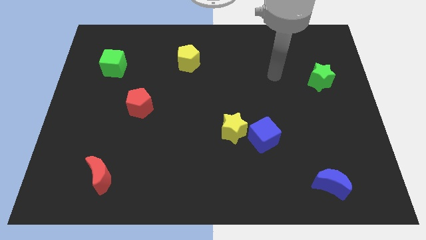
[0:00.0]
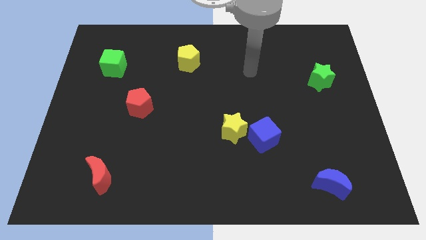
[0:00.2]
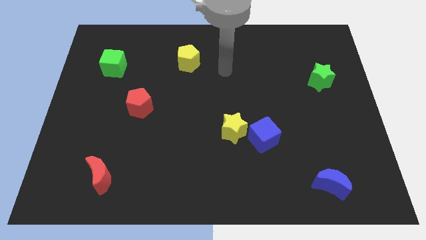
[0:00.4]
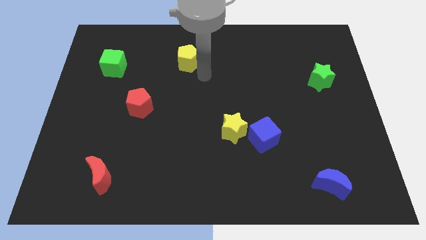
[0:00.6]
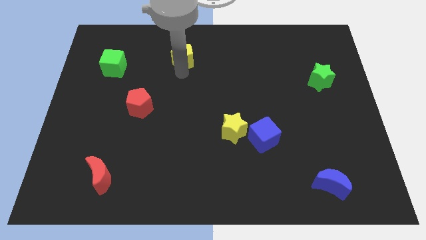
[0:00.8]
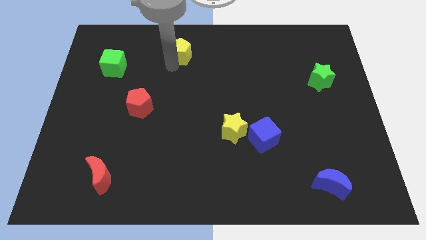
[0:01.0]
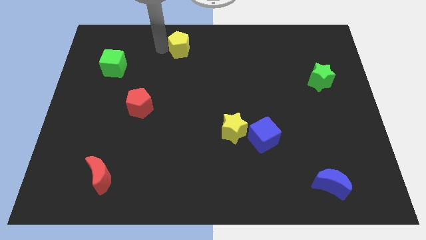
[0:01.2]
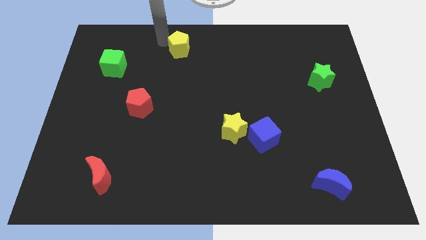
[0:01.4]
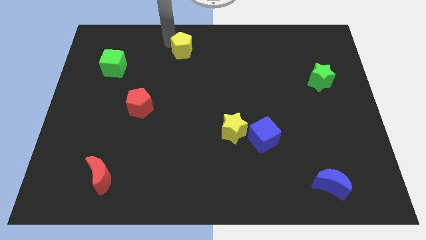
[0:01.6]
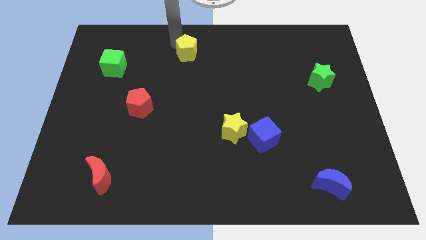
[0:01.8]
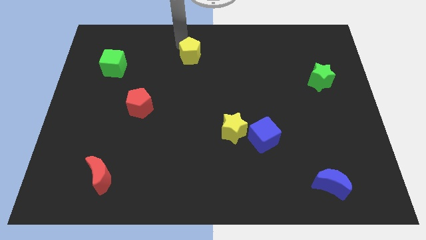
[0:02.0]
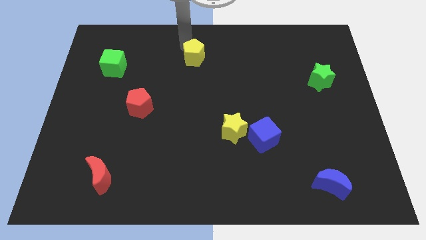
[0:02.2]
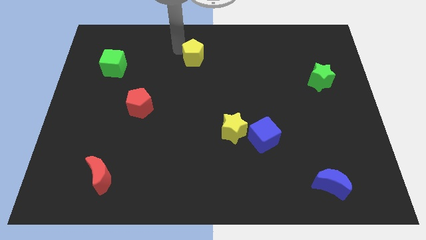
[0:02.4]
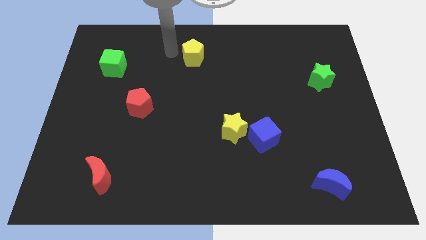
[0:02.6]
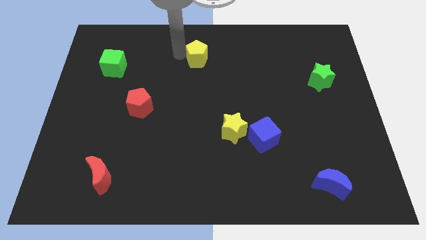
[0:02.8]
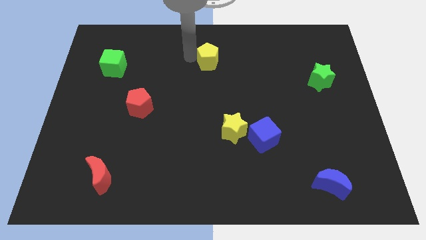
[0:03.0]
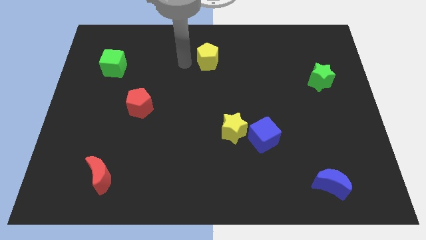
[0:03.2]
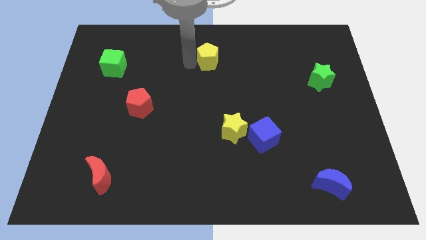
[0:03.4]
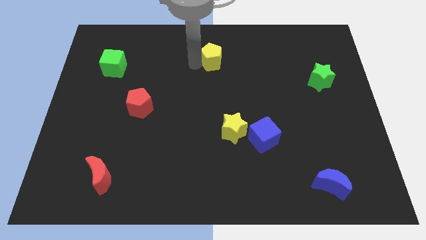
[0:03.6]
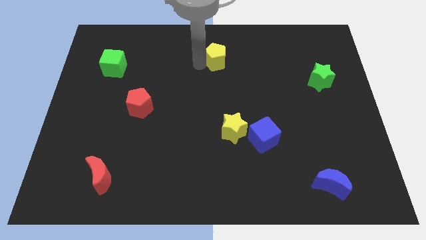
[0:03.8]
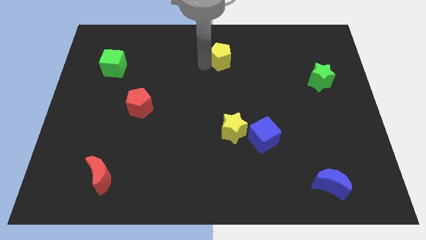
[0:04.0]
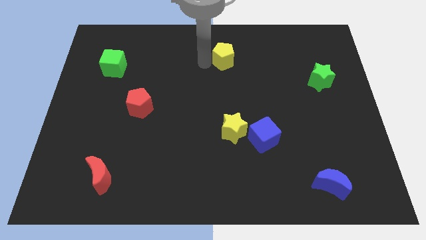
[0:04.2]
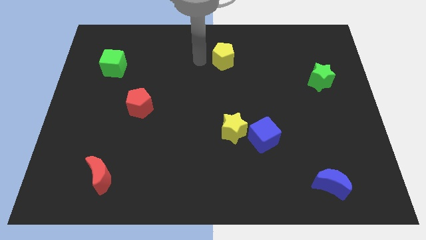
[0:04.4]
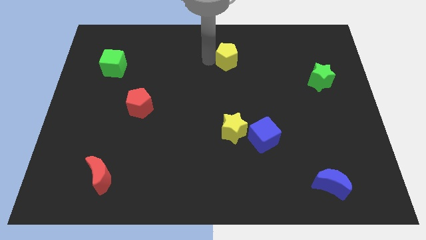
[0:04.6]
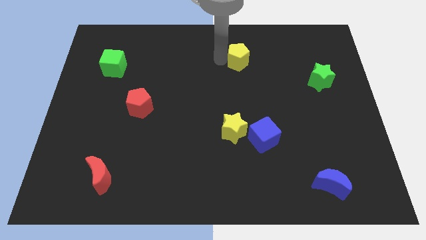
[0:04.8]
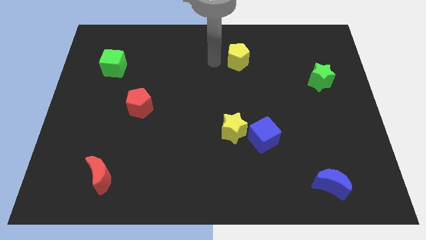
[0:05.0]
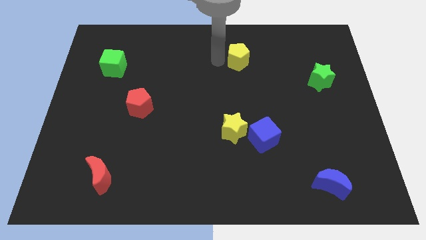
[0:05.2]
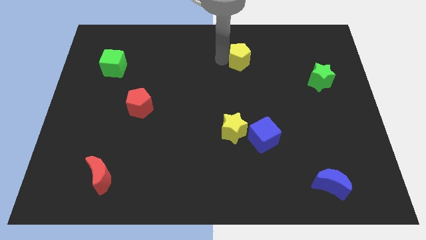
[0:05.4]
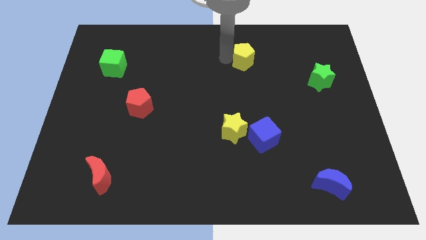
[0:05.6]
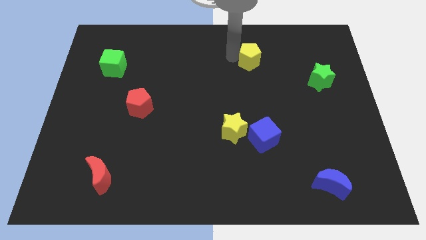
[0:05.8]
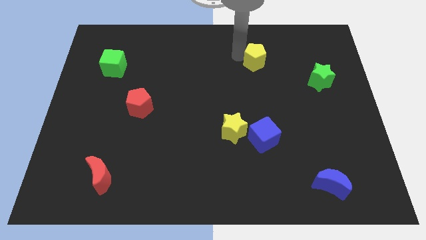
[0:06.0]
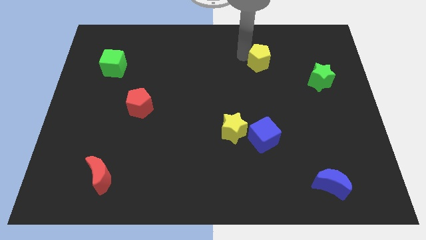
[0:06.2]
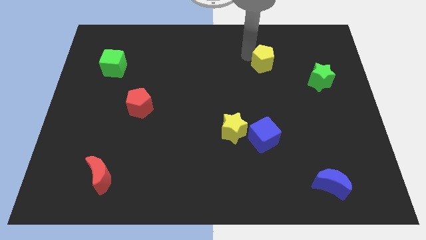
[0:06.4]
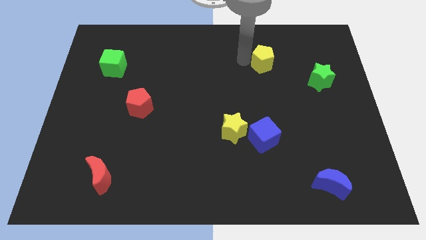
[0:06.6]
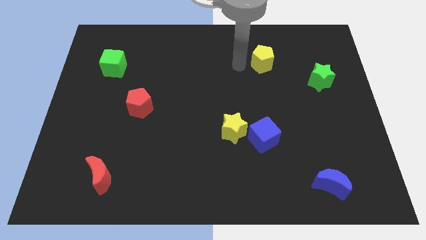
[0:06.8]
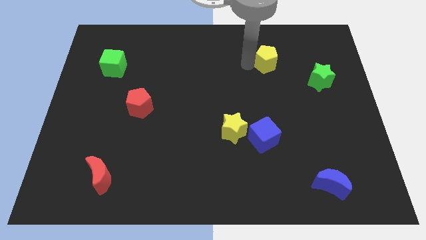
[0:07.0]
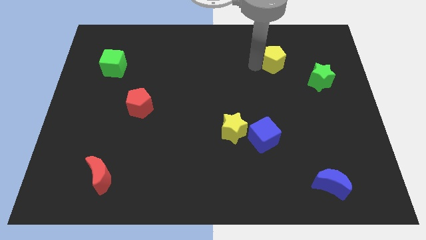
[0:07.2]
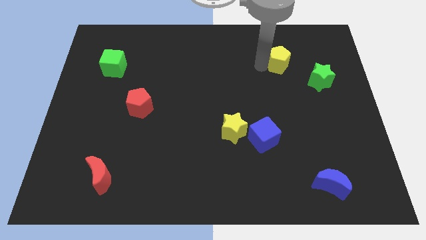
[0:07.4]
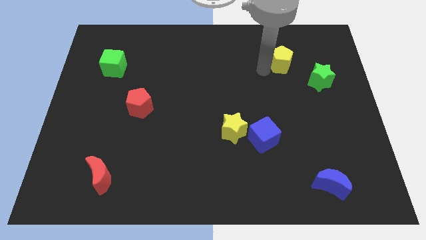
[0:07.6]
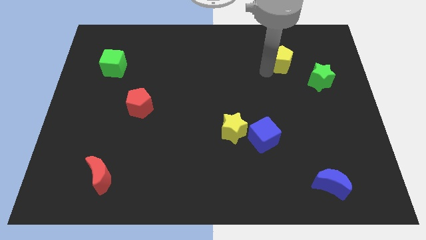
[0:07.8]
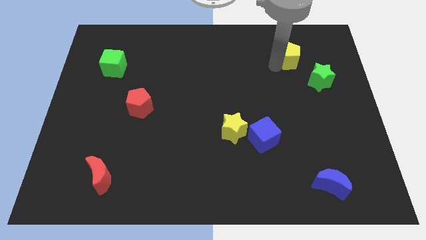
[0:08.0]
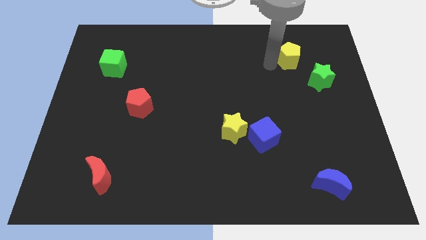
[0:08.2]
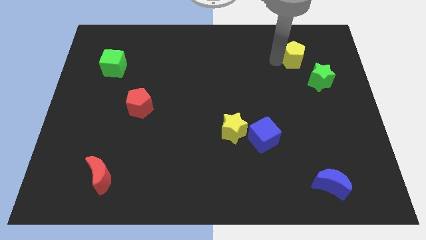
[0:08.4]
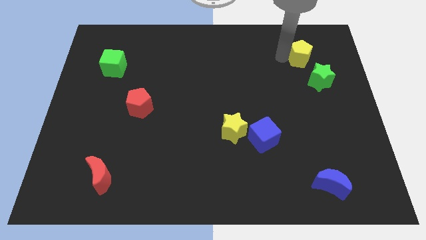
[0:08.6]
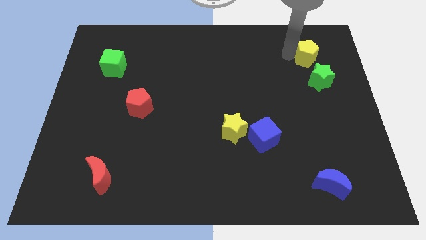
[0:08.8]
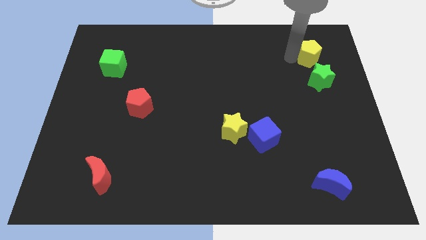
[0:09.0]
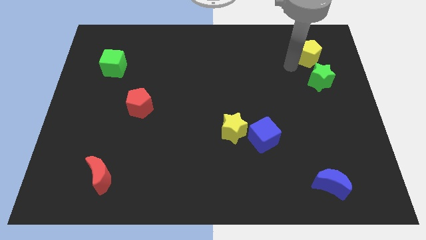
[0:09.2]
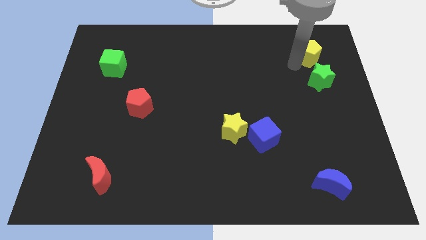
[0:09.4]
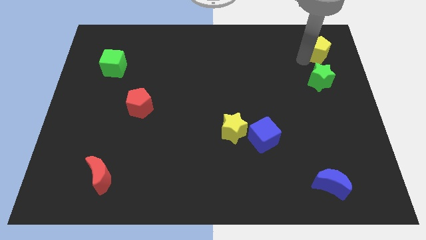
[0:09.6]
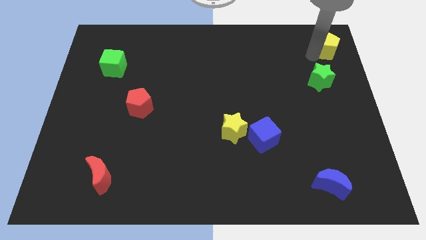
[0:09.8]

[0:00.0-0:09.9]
push the yellow pentagon to the top right corner

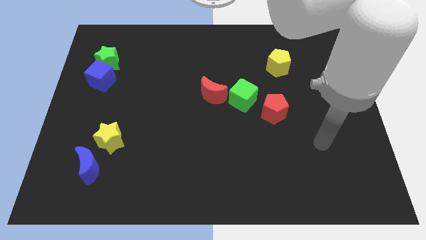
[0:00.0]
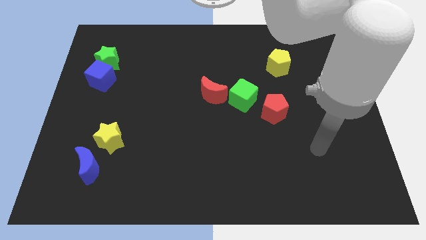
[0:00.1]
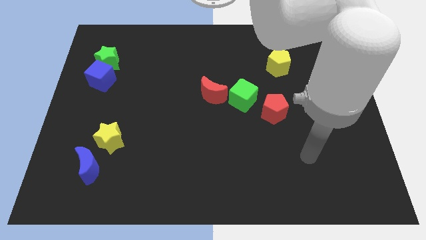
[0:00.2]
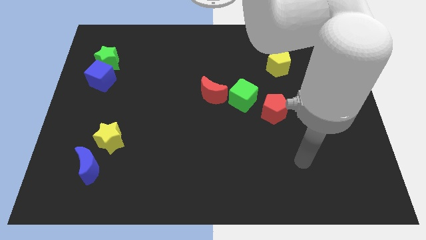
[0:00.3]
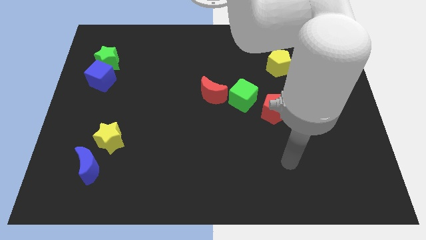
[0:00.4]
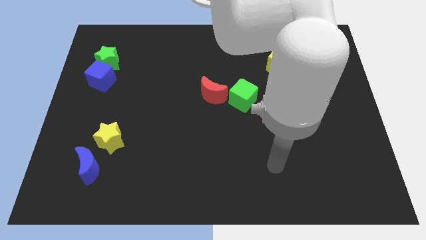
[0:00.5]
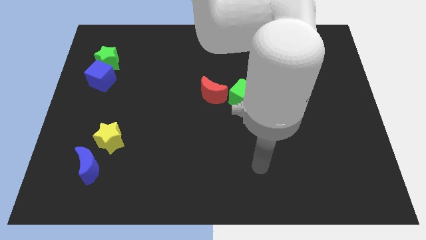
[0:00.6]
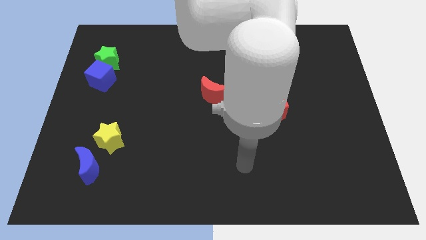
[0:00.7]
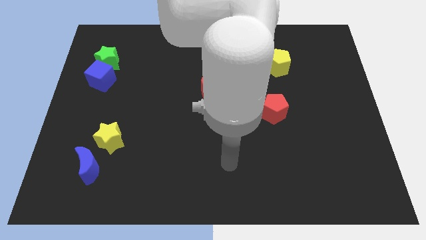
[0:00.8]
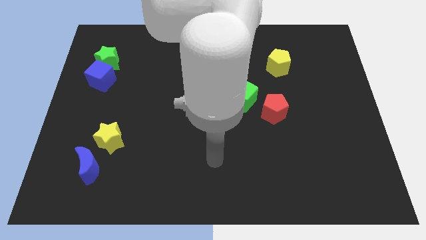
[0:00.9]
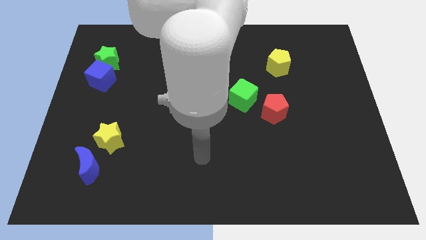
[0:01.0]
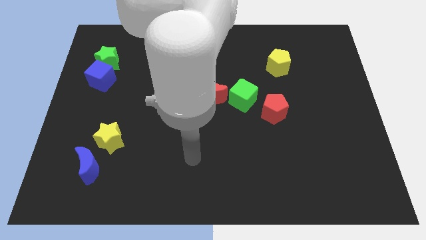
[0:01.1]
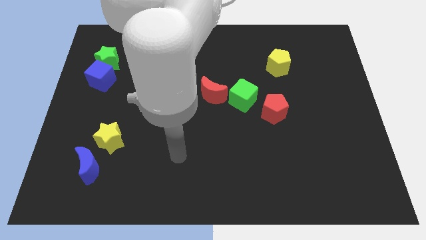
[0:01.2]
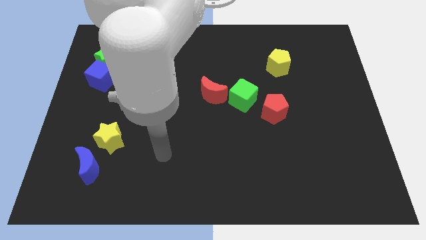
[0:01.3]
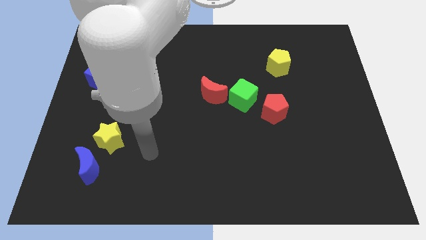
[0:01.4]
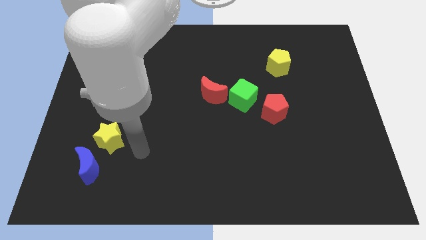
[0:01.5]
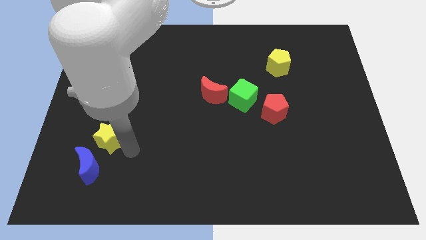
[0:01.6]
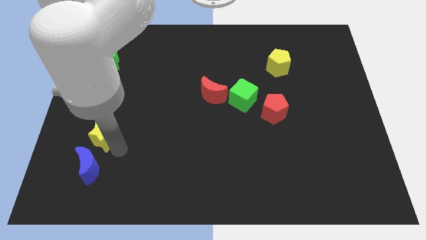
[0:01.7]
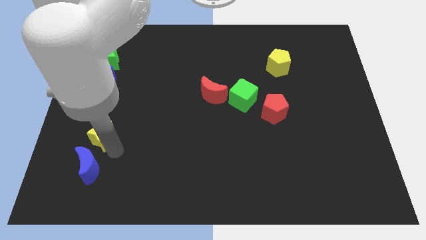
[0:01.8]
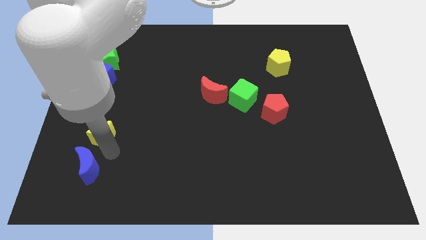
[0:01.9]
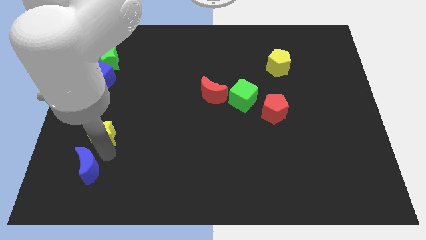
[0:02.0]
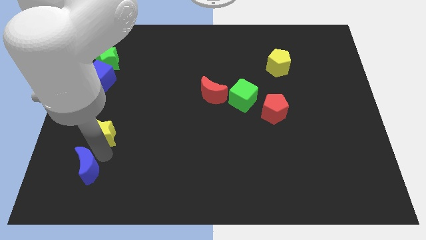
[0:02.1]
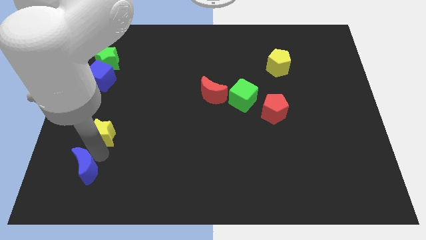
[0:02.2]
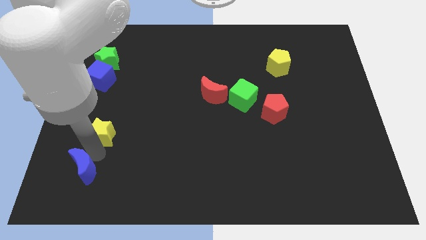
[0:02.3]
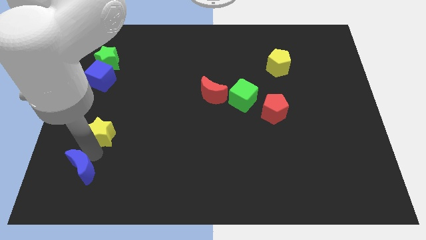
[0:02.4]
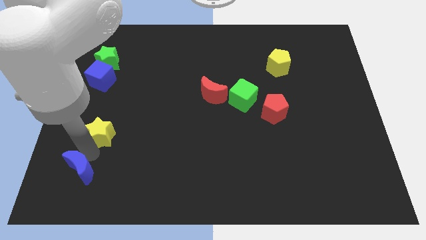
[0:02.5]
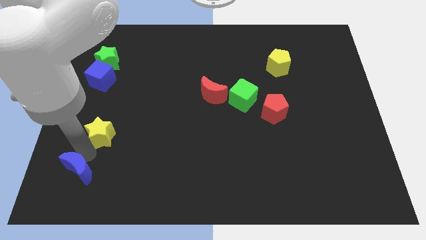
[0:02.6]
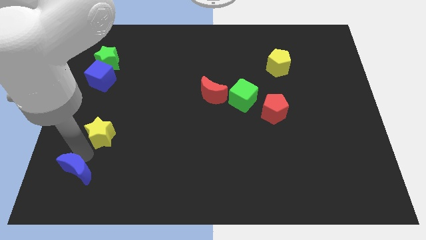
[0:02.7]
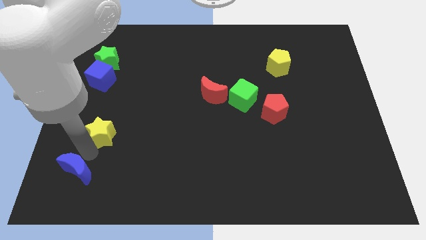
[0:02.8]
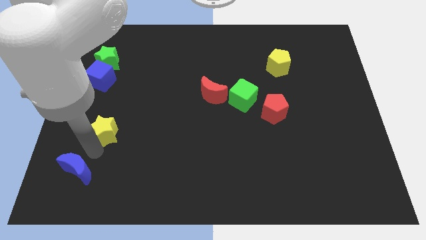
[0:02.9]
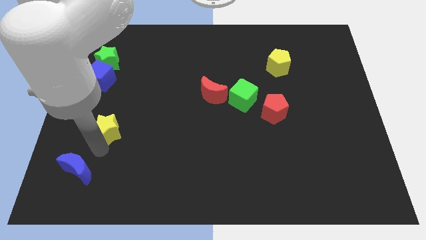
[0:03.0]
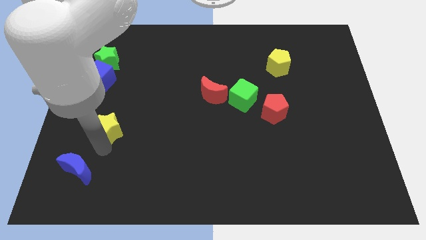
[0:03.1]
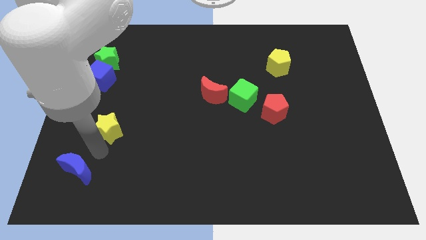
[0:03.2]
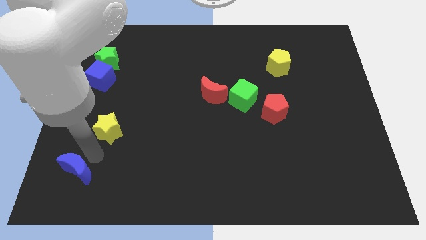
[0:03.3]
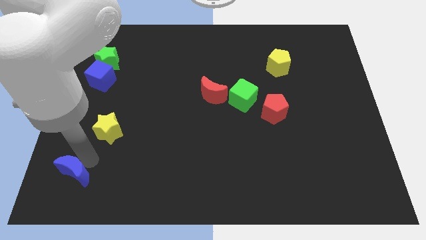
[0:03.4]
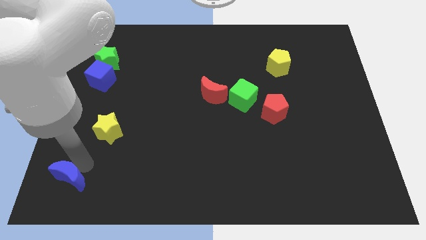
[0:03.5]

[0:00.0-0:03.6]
move the blue moon to the bottom left
